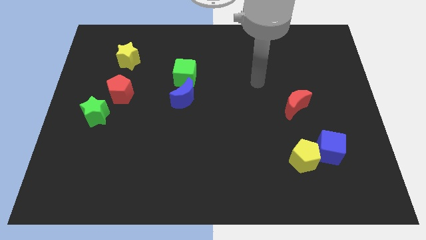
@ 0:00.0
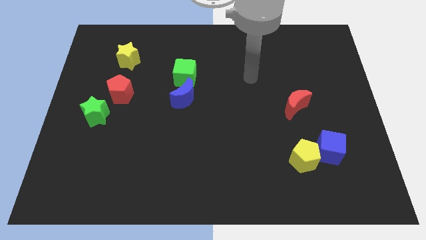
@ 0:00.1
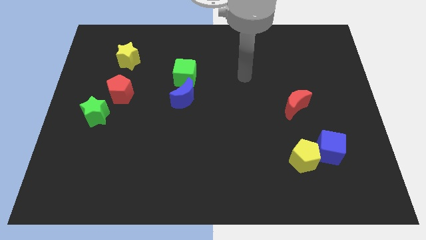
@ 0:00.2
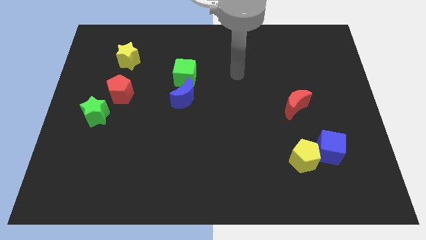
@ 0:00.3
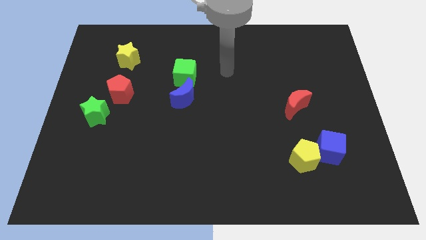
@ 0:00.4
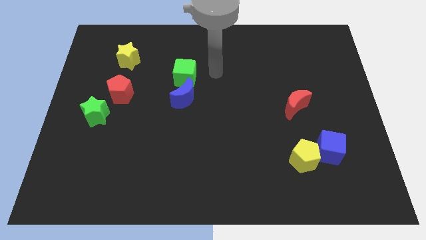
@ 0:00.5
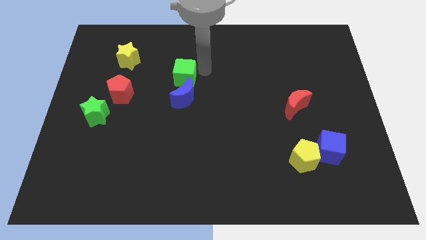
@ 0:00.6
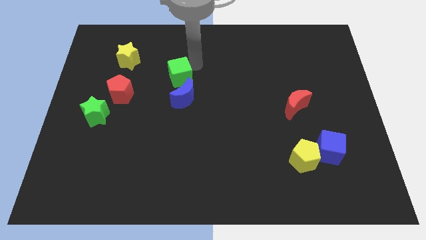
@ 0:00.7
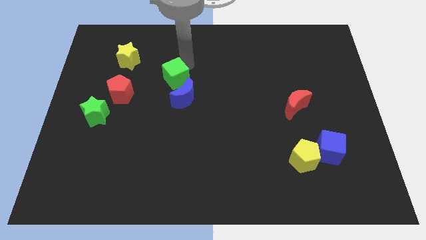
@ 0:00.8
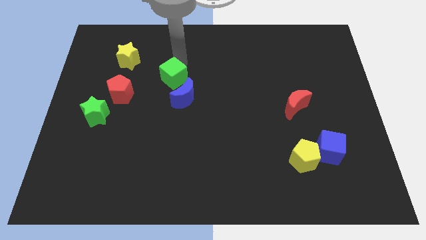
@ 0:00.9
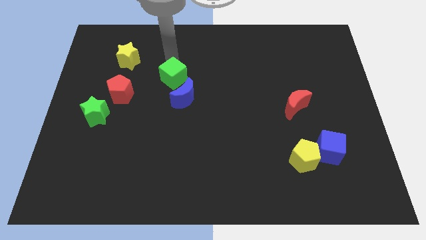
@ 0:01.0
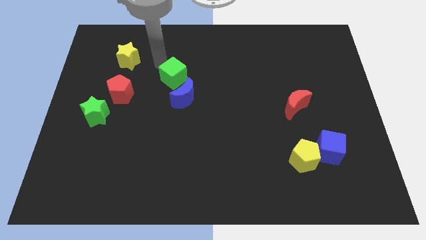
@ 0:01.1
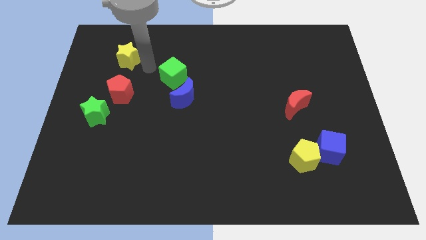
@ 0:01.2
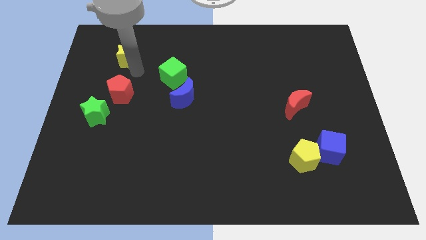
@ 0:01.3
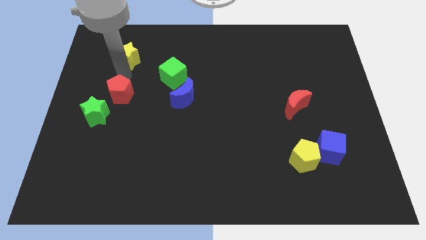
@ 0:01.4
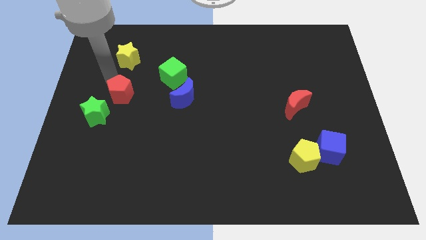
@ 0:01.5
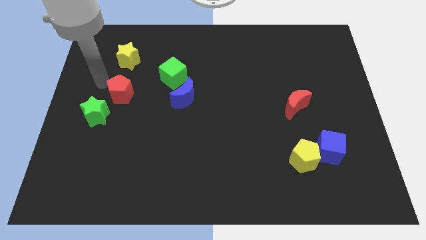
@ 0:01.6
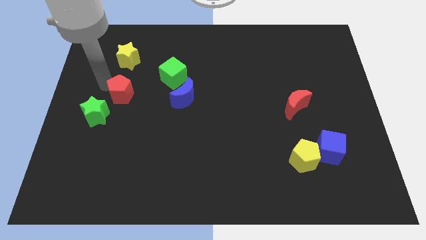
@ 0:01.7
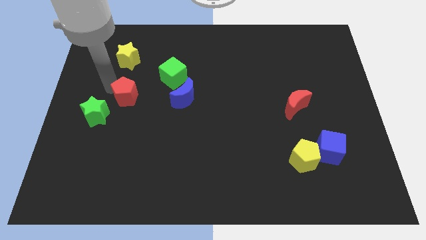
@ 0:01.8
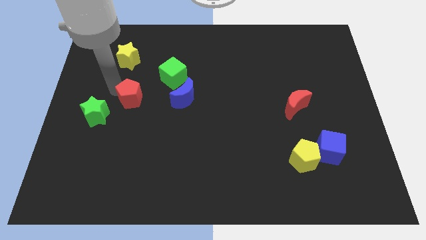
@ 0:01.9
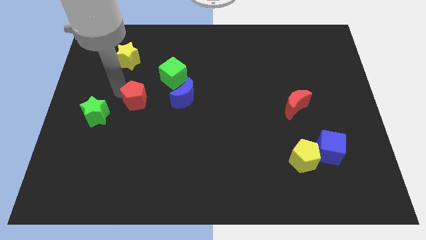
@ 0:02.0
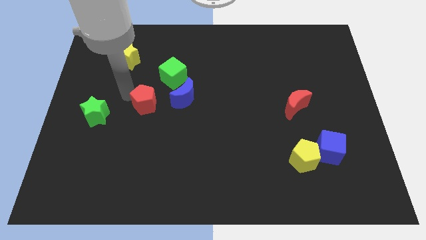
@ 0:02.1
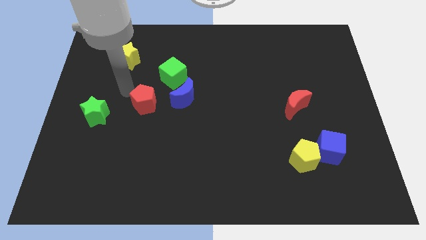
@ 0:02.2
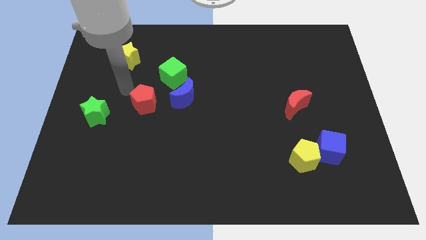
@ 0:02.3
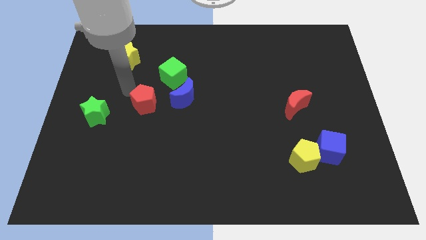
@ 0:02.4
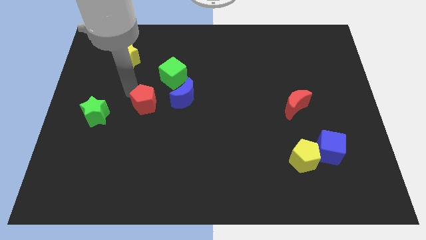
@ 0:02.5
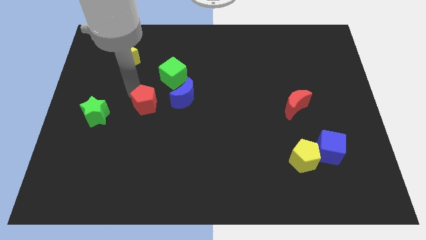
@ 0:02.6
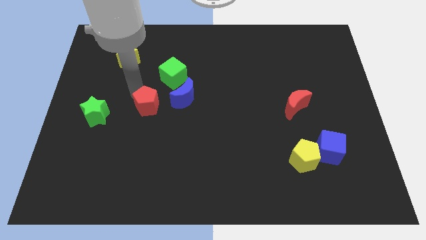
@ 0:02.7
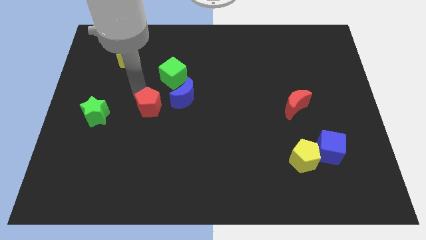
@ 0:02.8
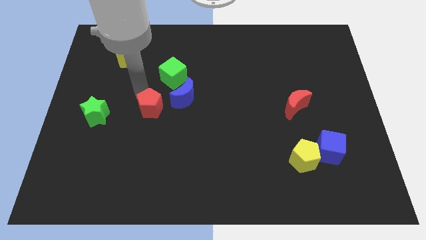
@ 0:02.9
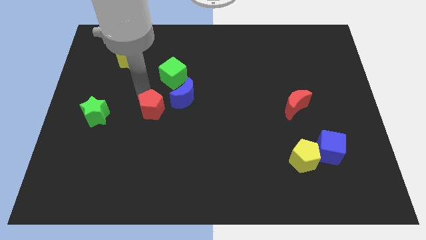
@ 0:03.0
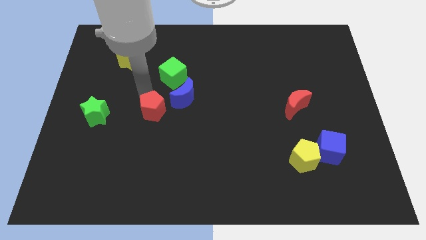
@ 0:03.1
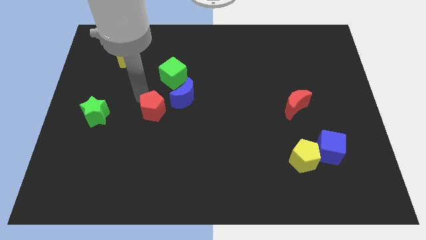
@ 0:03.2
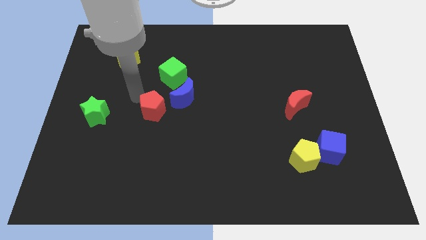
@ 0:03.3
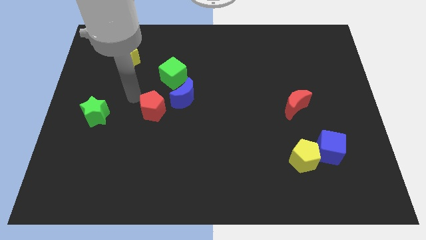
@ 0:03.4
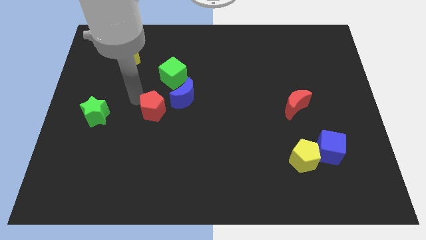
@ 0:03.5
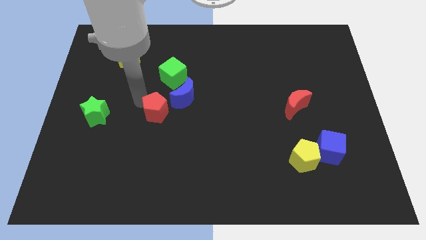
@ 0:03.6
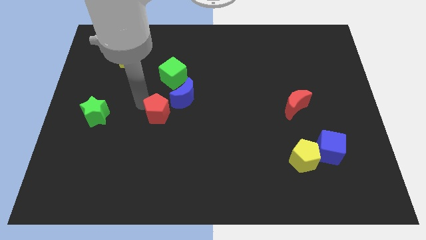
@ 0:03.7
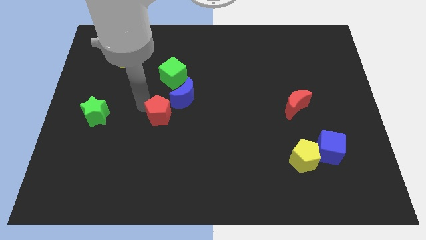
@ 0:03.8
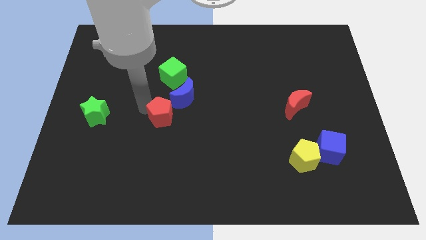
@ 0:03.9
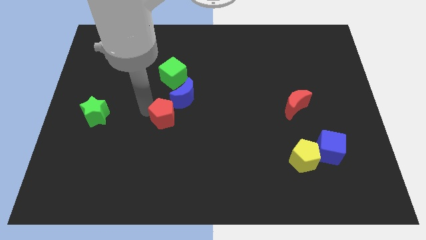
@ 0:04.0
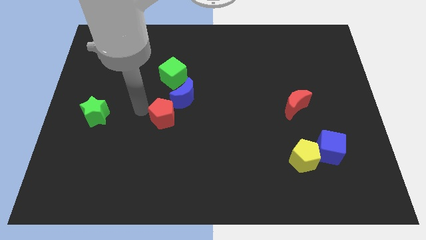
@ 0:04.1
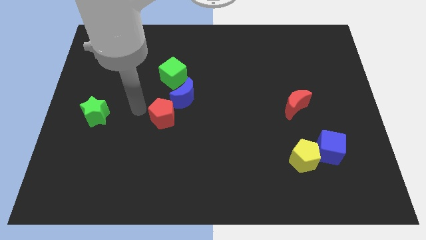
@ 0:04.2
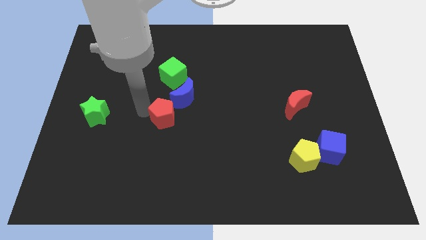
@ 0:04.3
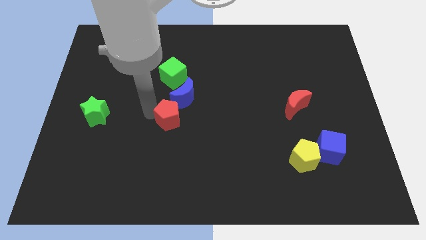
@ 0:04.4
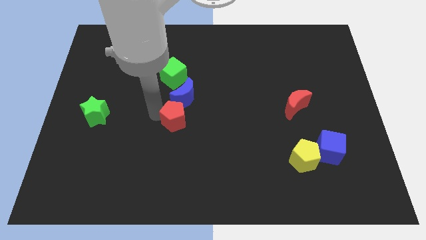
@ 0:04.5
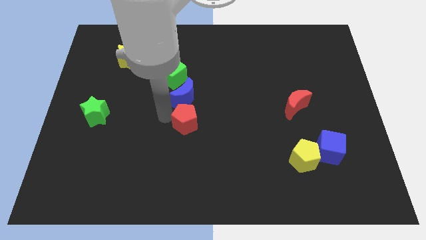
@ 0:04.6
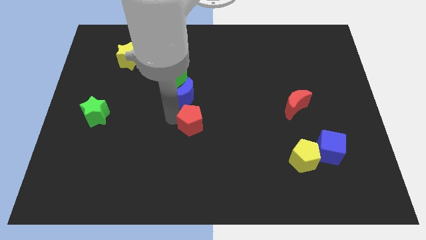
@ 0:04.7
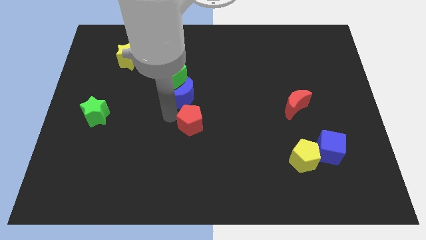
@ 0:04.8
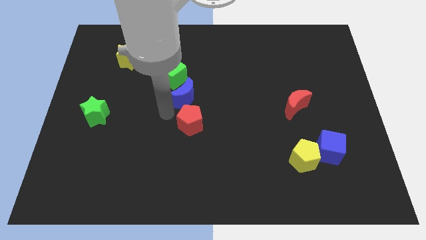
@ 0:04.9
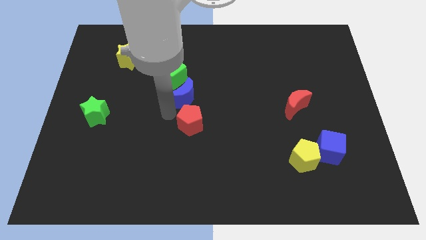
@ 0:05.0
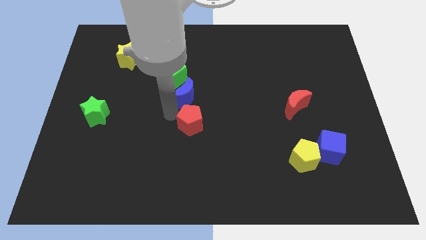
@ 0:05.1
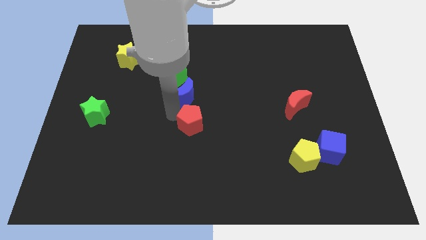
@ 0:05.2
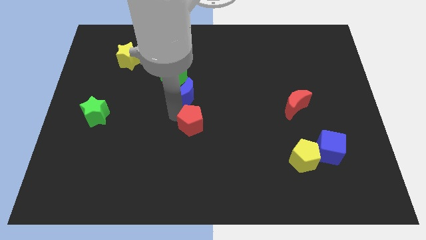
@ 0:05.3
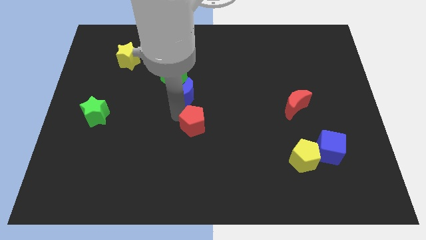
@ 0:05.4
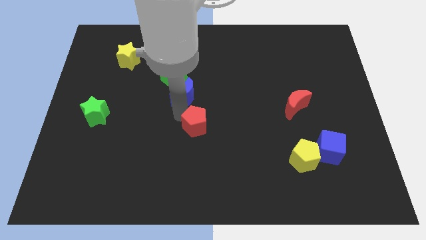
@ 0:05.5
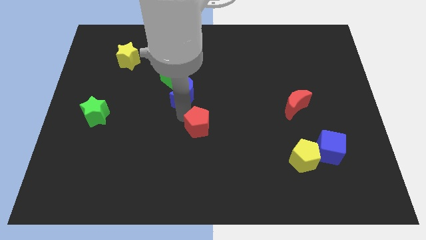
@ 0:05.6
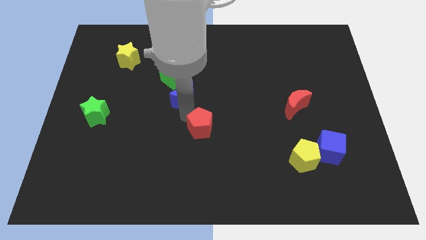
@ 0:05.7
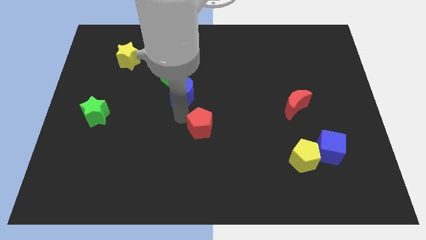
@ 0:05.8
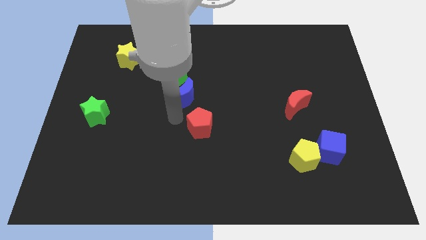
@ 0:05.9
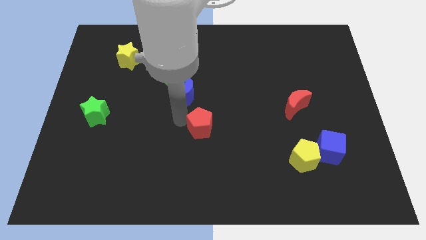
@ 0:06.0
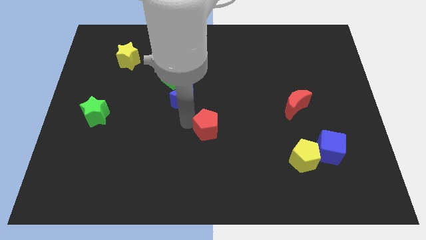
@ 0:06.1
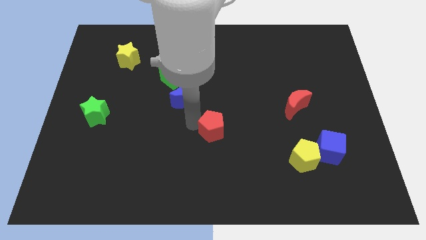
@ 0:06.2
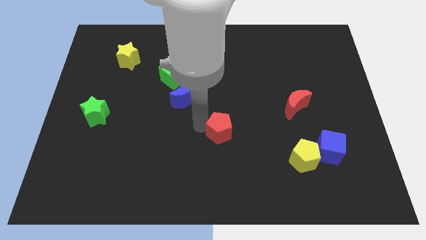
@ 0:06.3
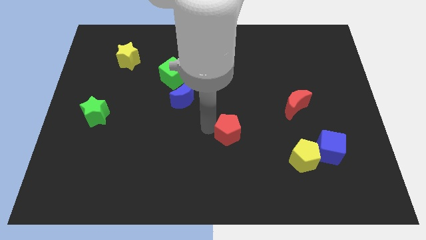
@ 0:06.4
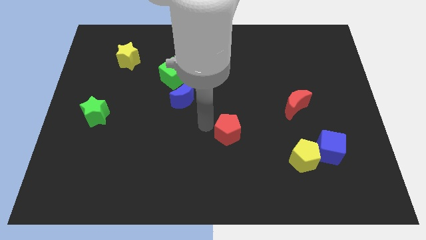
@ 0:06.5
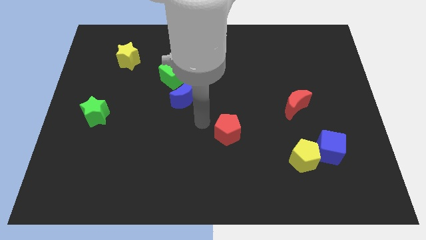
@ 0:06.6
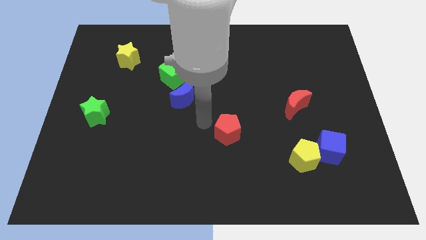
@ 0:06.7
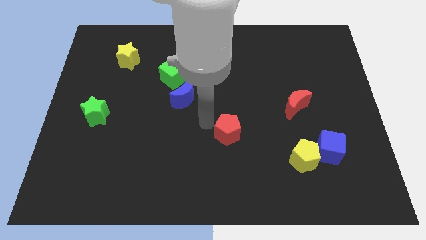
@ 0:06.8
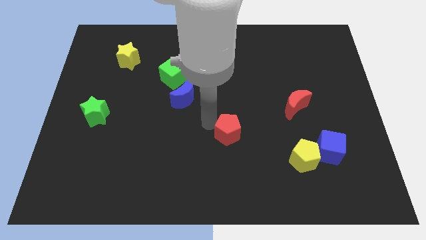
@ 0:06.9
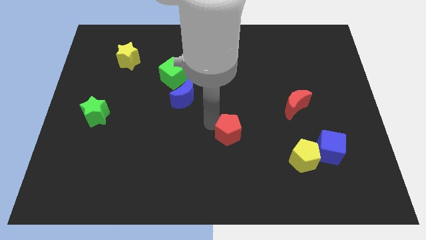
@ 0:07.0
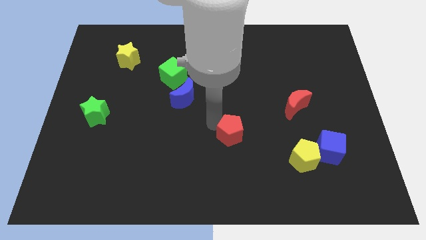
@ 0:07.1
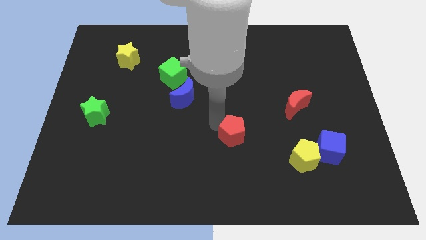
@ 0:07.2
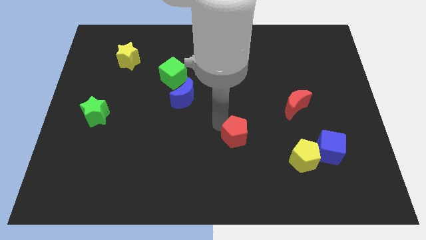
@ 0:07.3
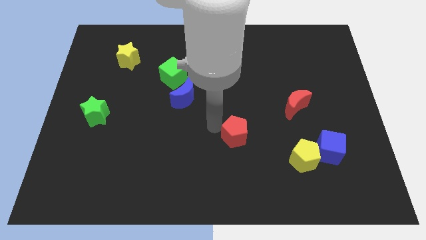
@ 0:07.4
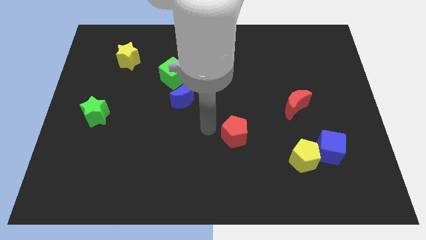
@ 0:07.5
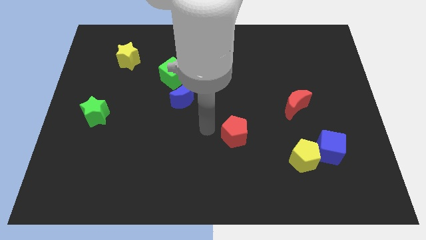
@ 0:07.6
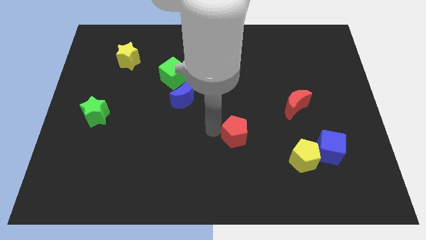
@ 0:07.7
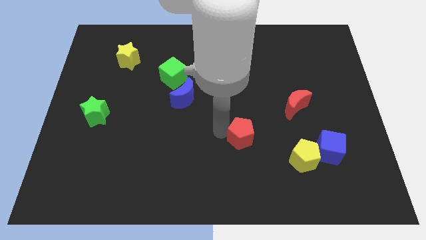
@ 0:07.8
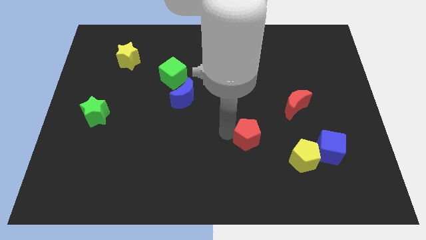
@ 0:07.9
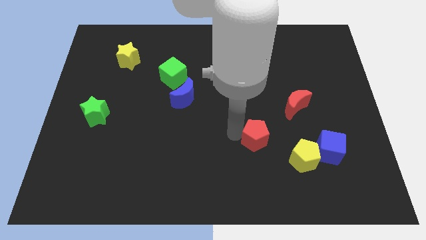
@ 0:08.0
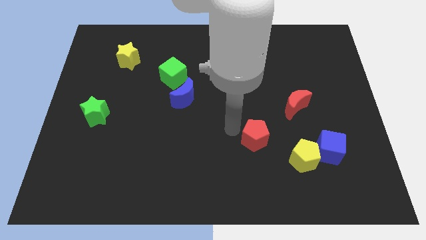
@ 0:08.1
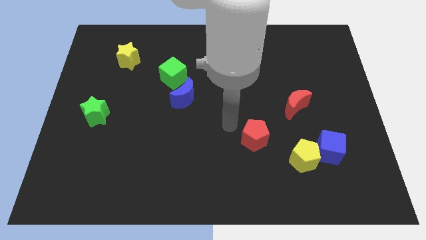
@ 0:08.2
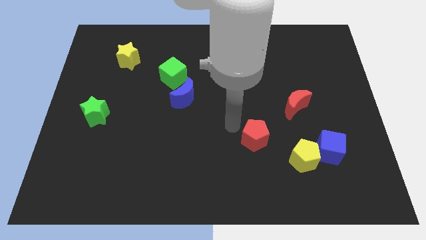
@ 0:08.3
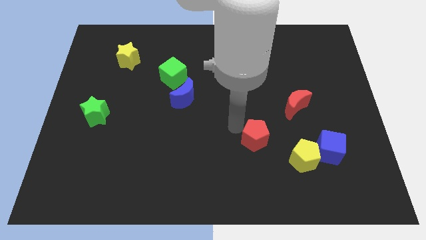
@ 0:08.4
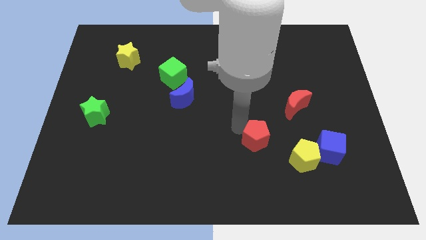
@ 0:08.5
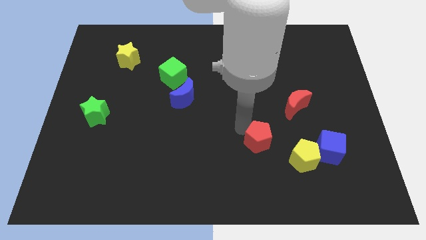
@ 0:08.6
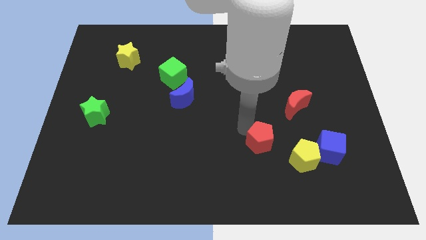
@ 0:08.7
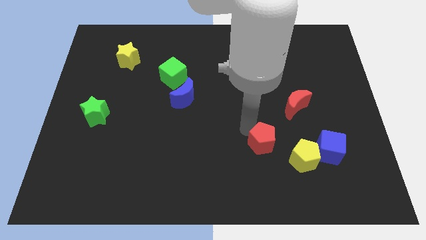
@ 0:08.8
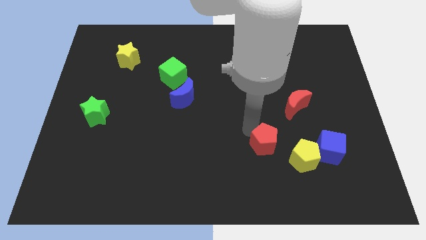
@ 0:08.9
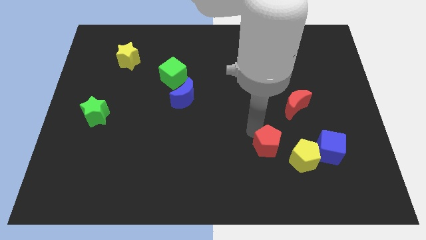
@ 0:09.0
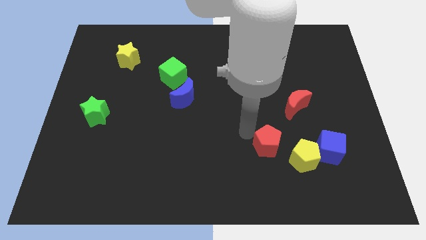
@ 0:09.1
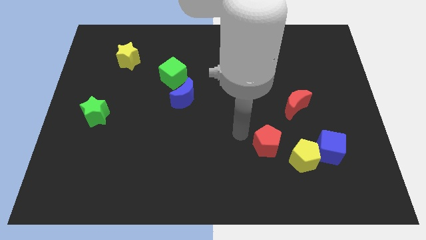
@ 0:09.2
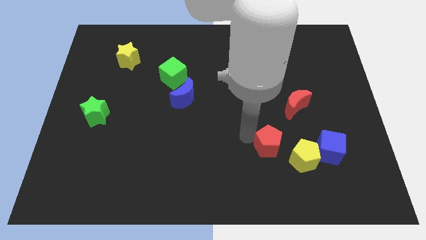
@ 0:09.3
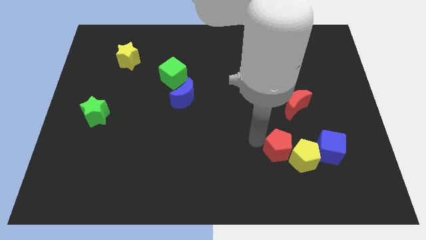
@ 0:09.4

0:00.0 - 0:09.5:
push the red pentagon to the yellow pentagon
